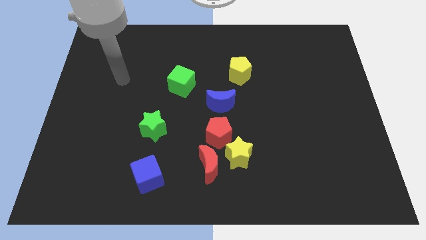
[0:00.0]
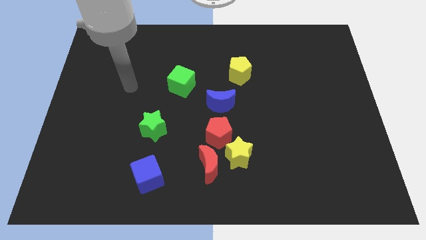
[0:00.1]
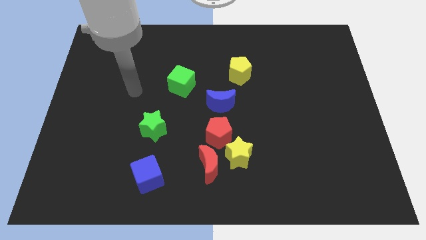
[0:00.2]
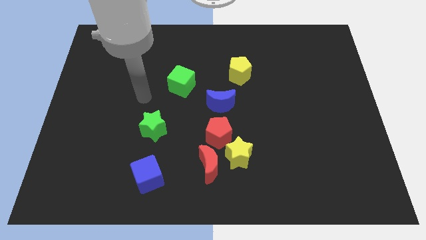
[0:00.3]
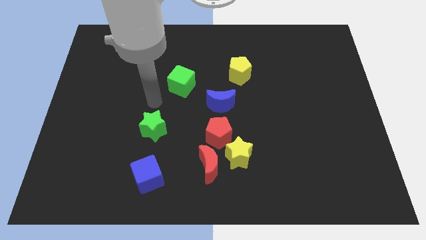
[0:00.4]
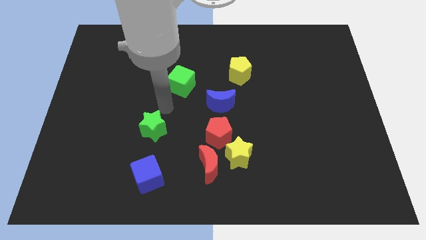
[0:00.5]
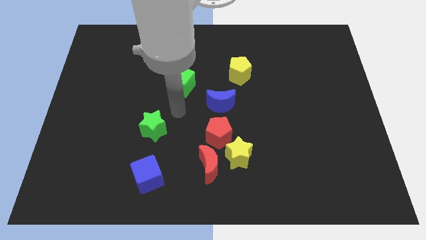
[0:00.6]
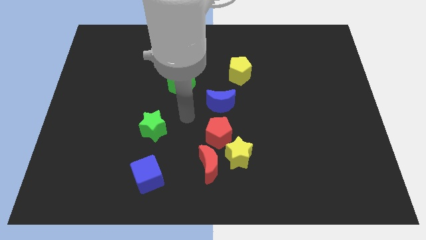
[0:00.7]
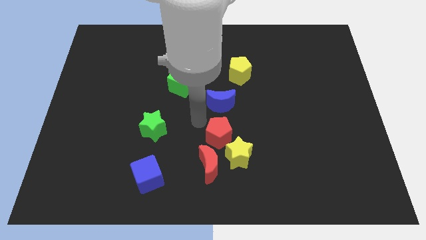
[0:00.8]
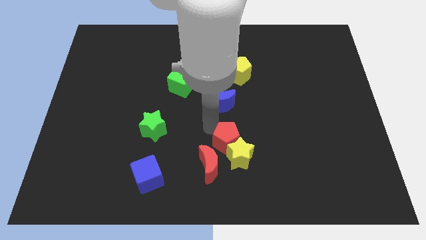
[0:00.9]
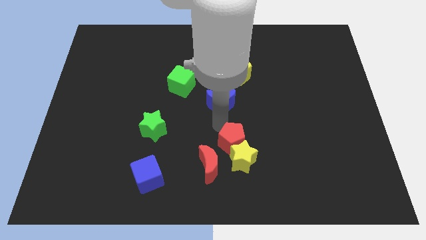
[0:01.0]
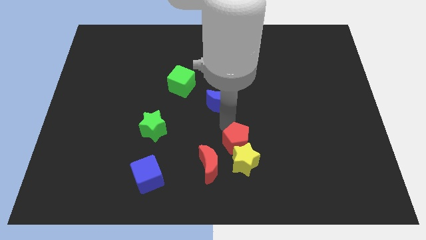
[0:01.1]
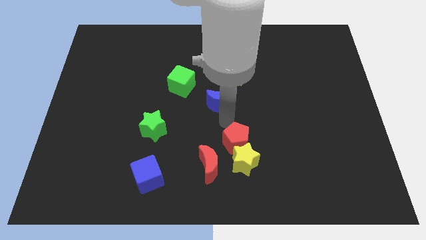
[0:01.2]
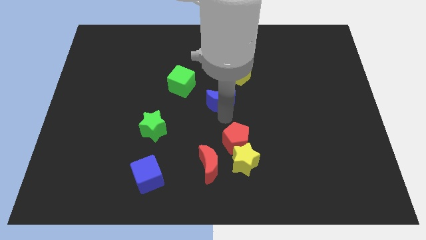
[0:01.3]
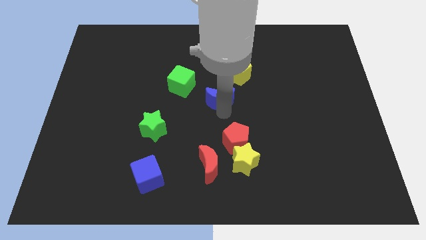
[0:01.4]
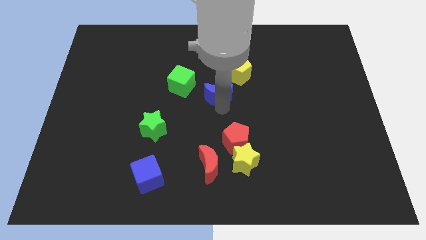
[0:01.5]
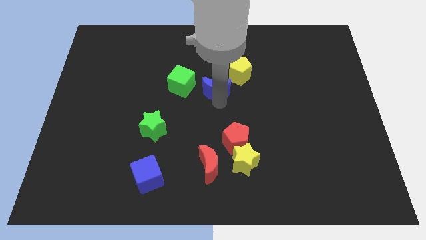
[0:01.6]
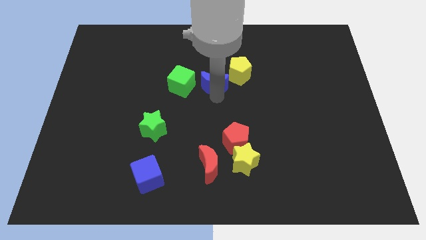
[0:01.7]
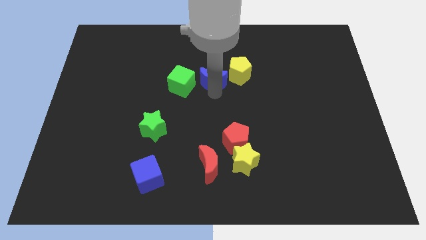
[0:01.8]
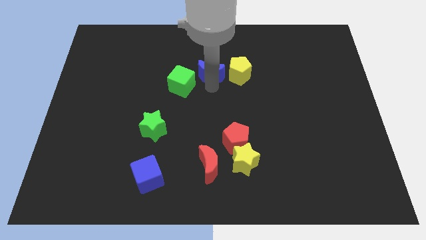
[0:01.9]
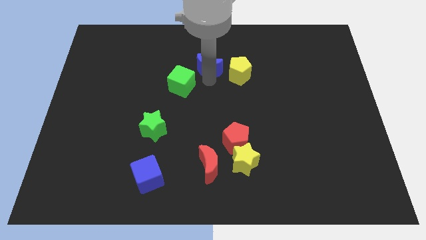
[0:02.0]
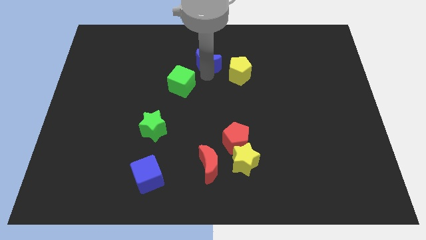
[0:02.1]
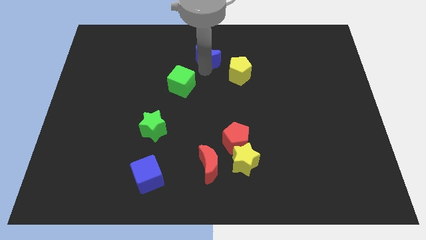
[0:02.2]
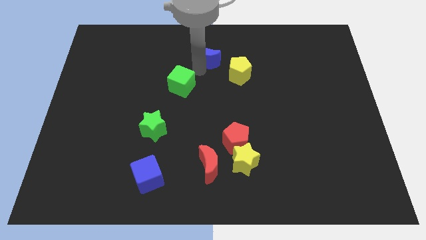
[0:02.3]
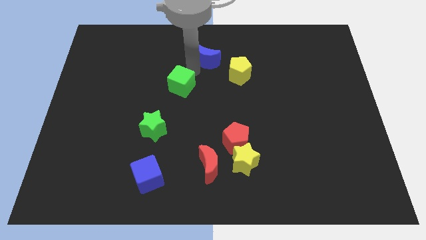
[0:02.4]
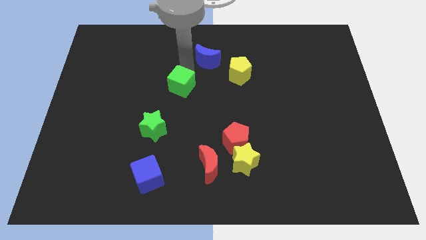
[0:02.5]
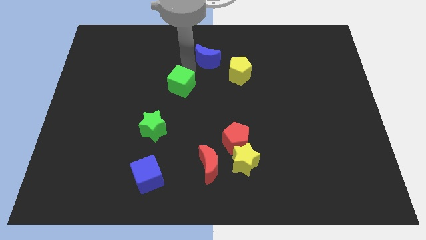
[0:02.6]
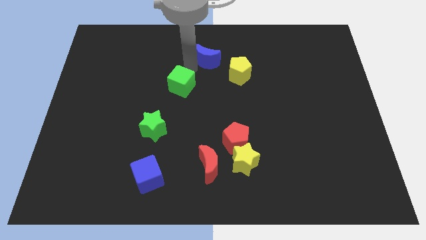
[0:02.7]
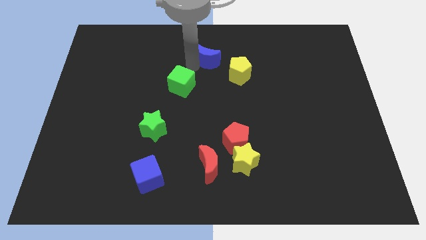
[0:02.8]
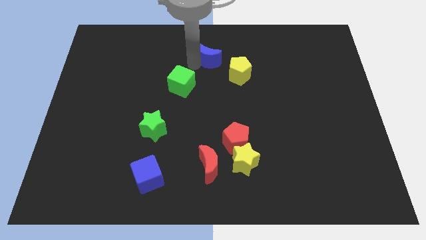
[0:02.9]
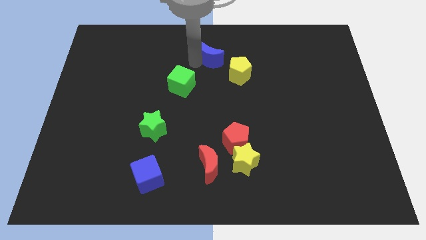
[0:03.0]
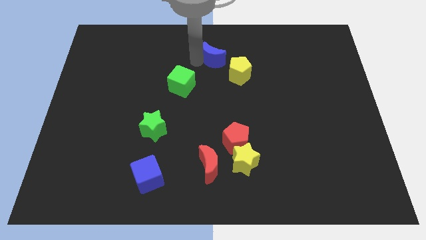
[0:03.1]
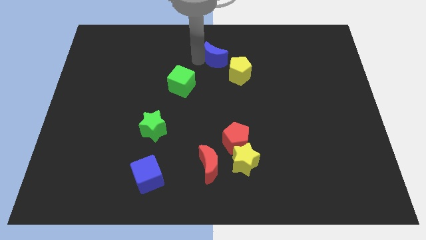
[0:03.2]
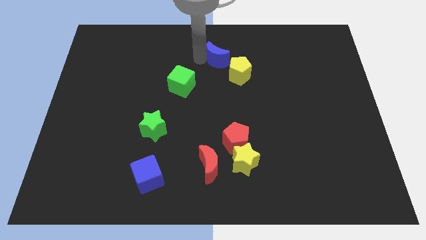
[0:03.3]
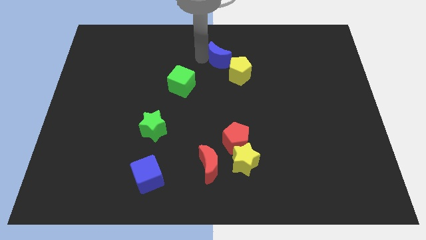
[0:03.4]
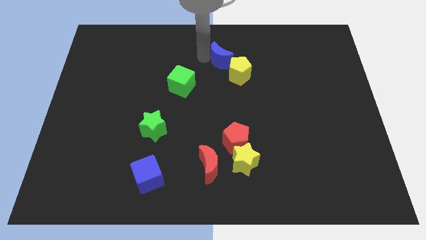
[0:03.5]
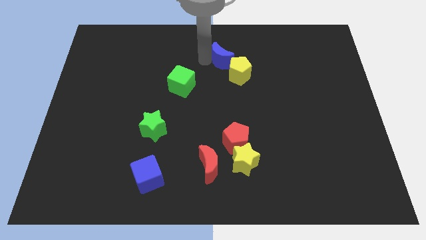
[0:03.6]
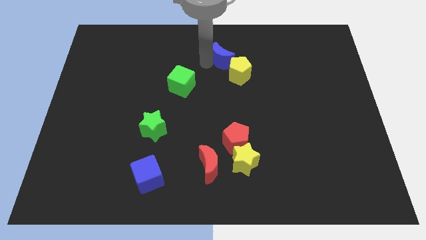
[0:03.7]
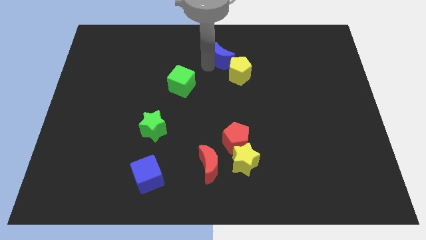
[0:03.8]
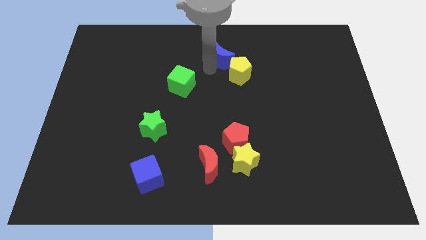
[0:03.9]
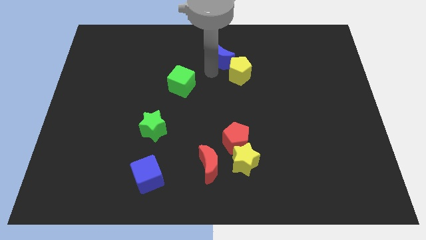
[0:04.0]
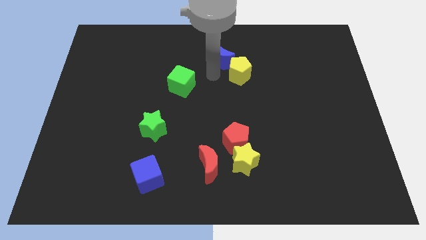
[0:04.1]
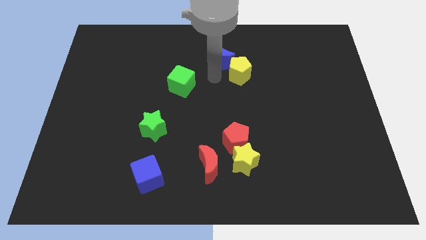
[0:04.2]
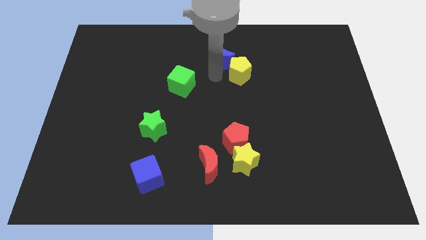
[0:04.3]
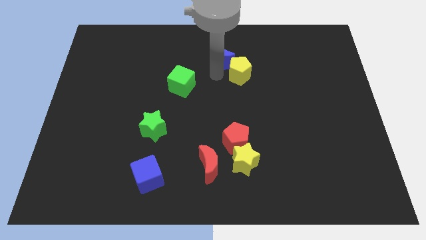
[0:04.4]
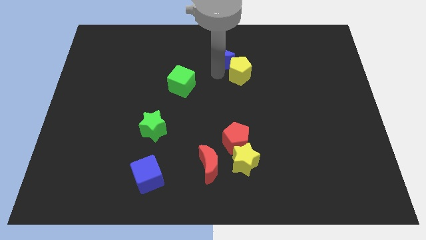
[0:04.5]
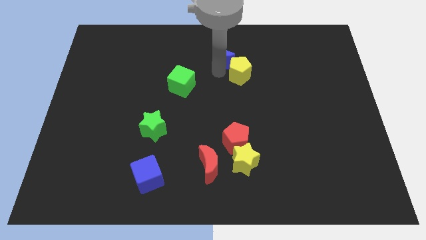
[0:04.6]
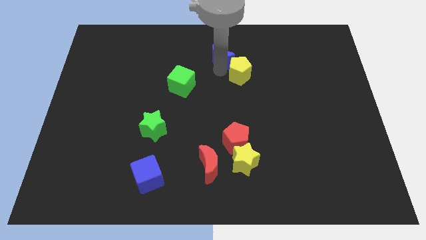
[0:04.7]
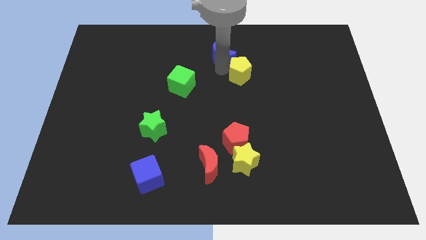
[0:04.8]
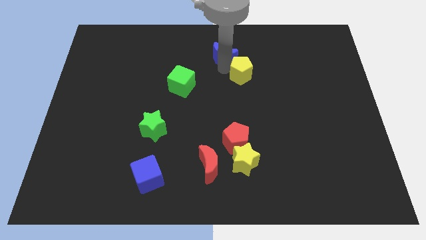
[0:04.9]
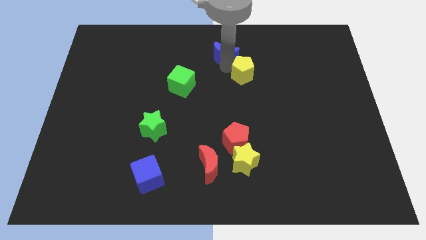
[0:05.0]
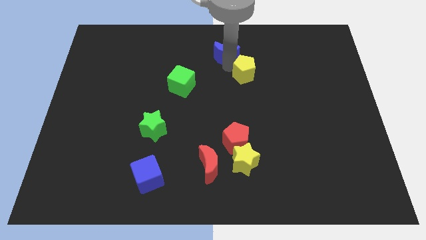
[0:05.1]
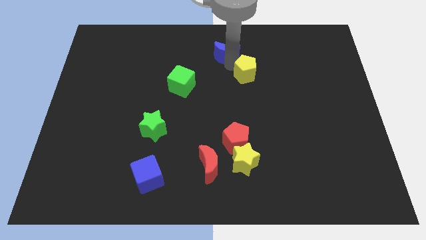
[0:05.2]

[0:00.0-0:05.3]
push the blue moon to the towards your base
